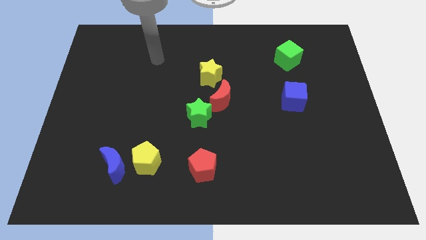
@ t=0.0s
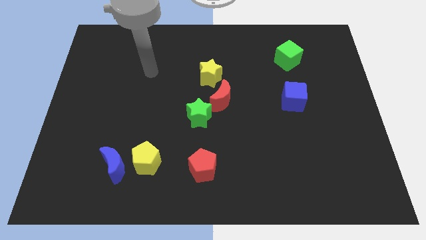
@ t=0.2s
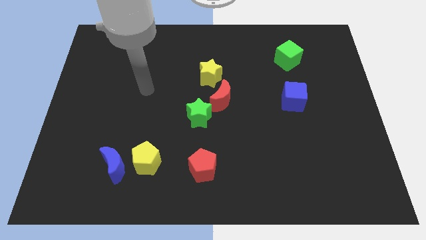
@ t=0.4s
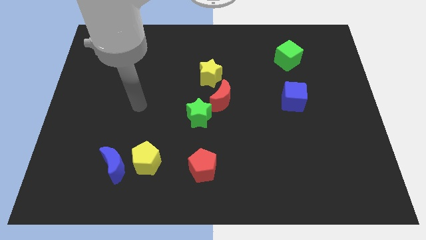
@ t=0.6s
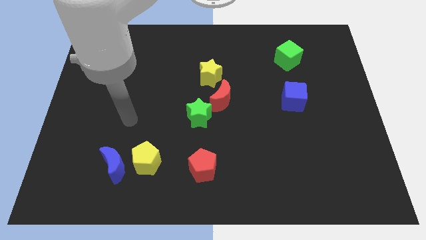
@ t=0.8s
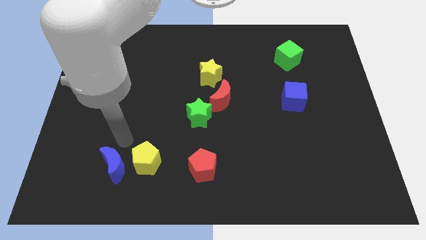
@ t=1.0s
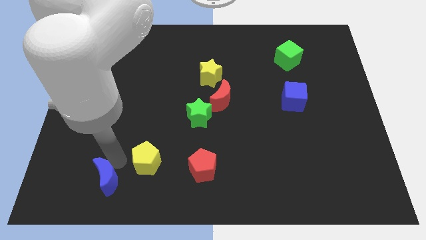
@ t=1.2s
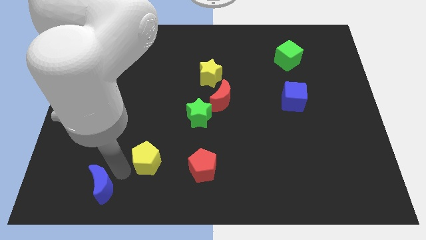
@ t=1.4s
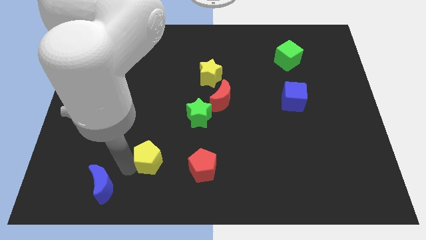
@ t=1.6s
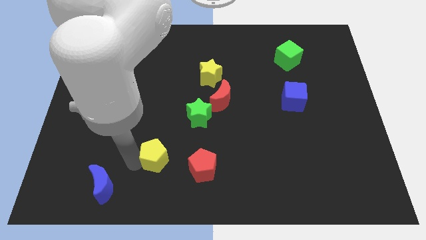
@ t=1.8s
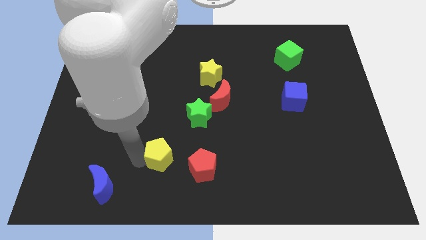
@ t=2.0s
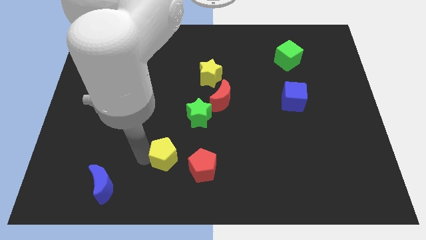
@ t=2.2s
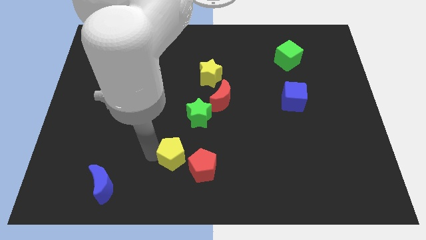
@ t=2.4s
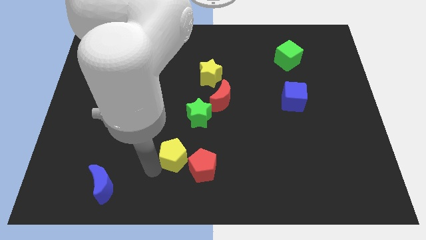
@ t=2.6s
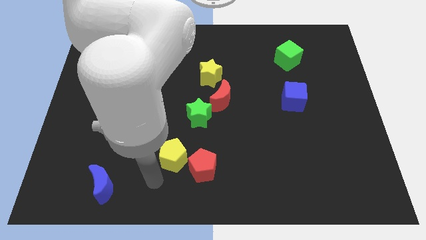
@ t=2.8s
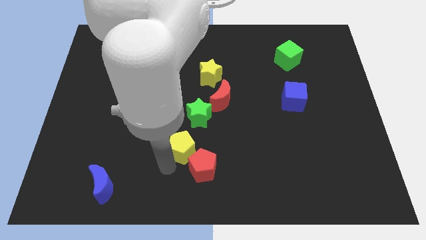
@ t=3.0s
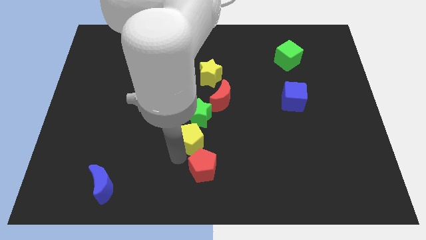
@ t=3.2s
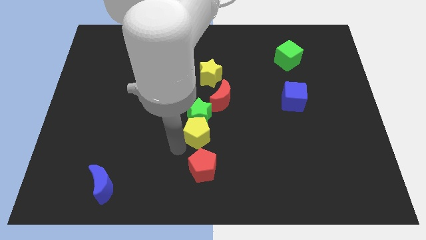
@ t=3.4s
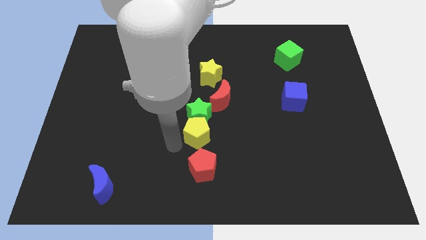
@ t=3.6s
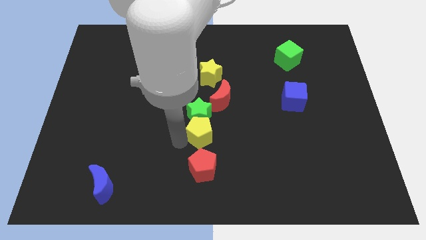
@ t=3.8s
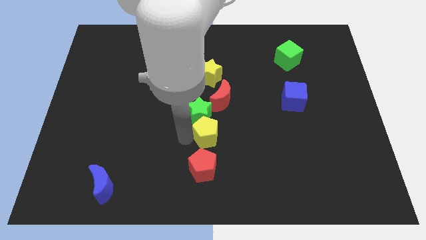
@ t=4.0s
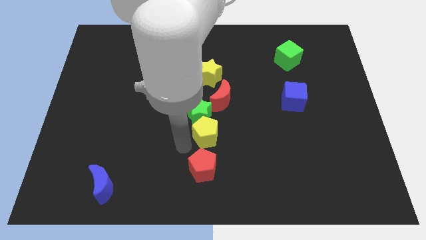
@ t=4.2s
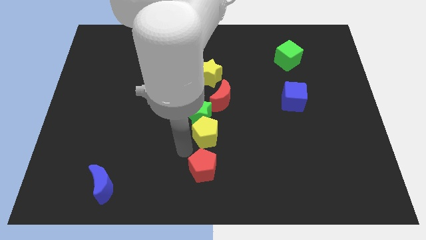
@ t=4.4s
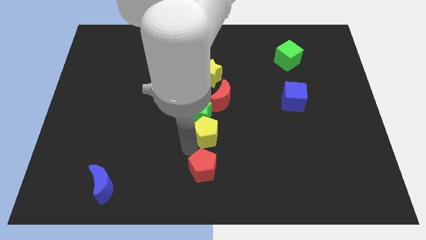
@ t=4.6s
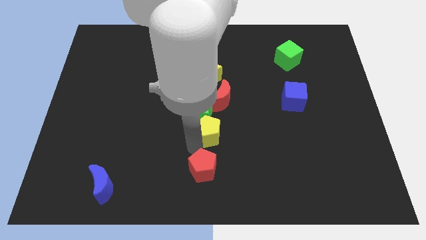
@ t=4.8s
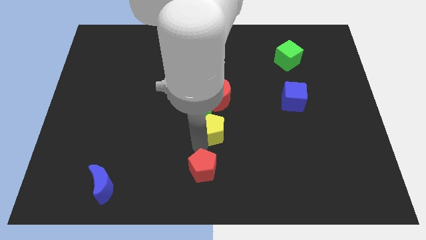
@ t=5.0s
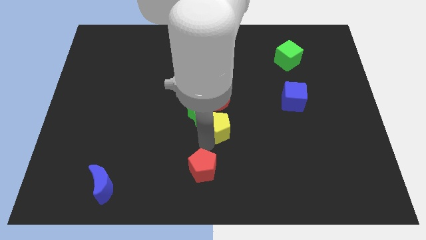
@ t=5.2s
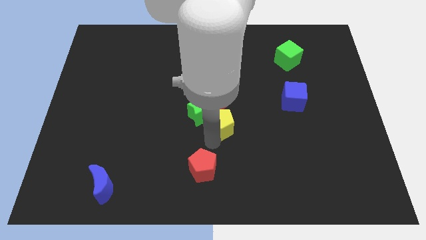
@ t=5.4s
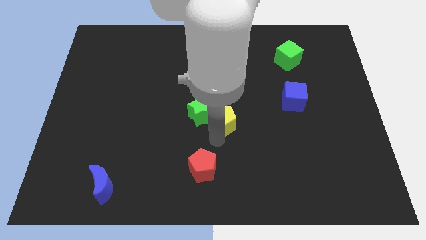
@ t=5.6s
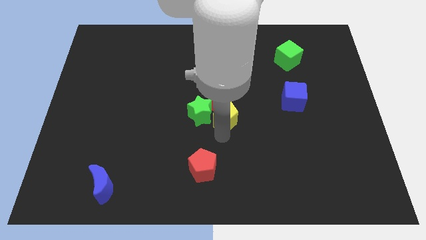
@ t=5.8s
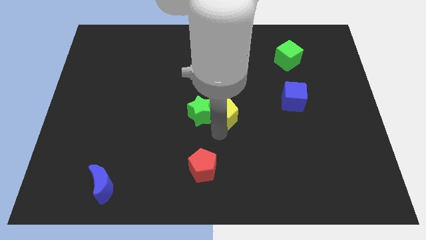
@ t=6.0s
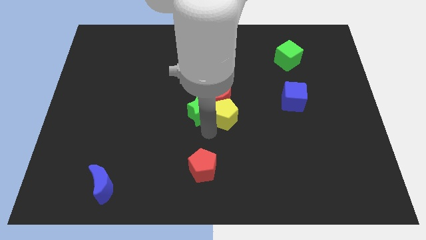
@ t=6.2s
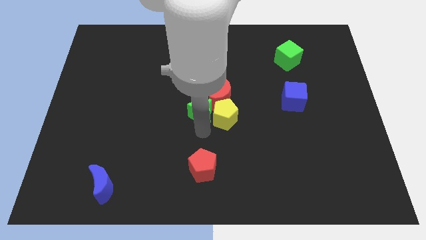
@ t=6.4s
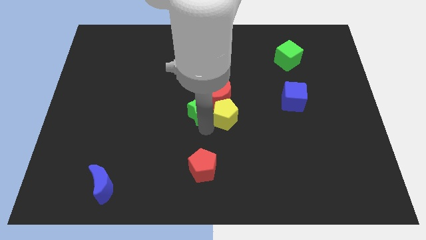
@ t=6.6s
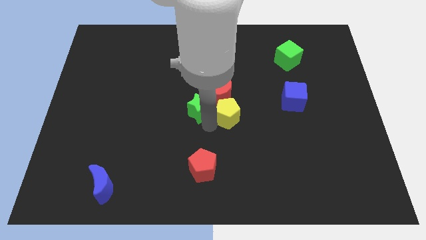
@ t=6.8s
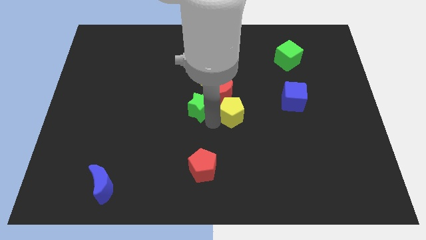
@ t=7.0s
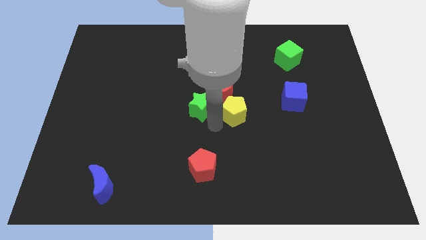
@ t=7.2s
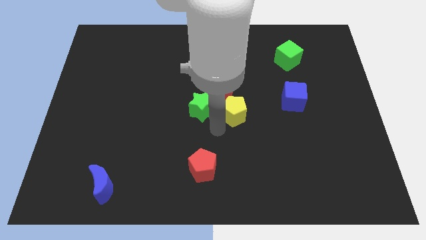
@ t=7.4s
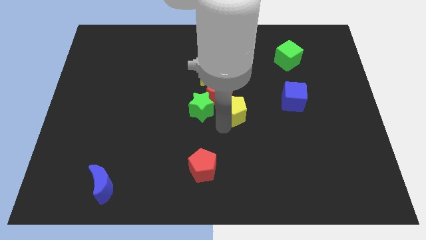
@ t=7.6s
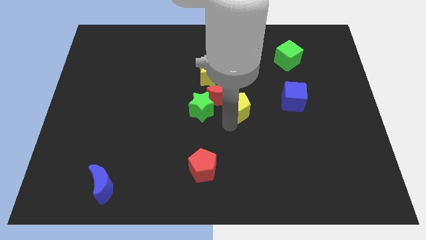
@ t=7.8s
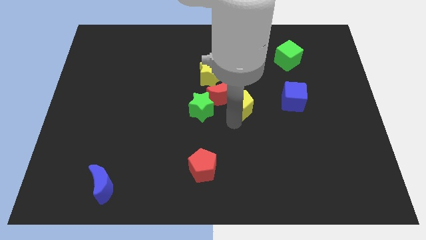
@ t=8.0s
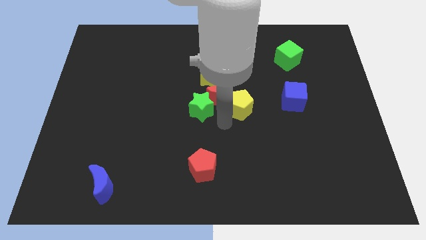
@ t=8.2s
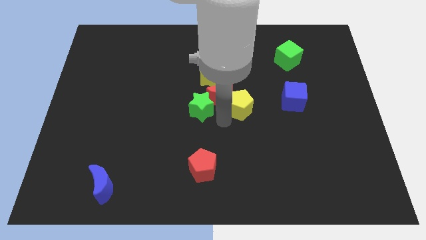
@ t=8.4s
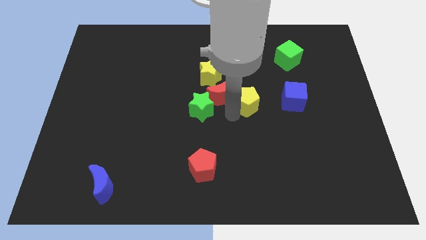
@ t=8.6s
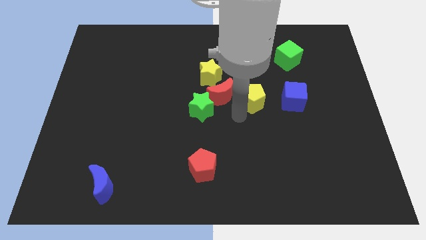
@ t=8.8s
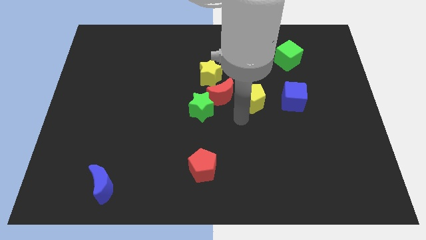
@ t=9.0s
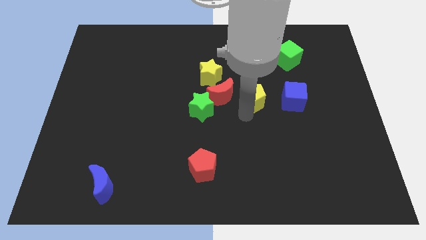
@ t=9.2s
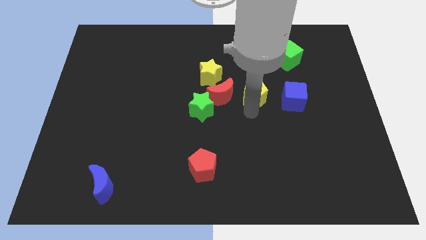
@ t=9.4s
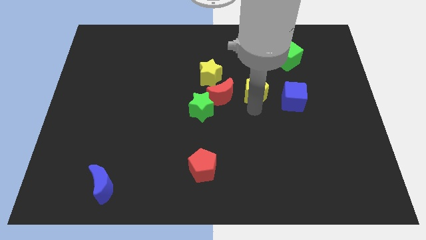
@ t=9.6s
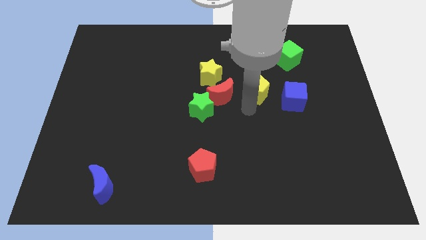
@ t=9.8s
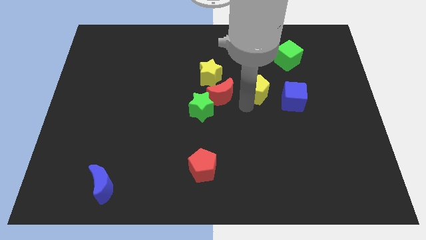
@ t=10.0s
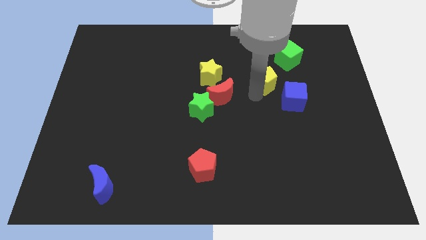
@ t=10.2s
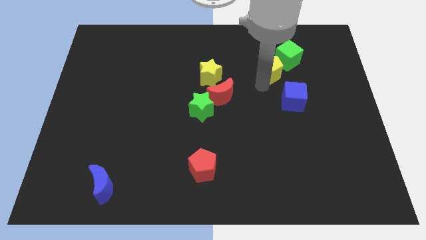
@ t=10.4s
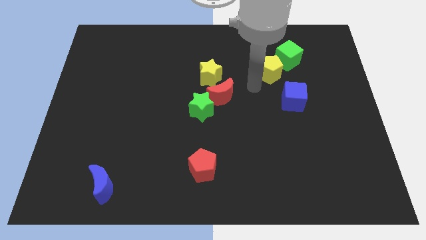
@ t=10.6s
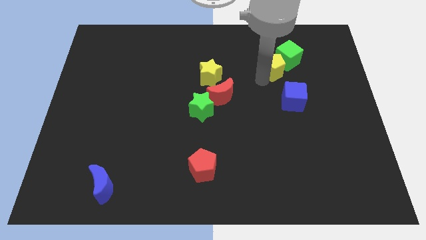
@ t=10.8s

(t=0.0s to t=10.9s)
slide the yellow pentagon close to the green cube

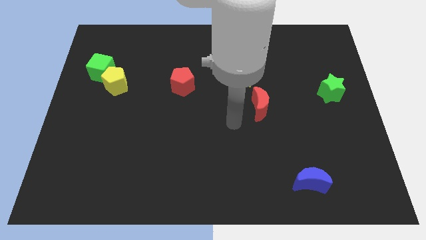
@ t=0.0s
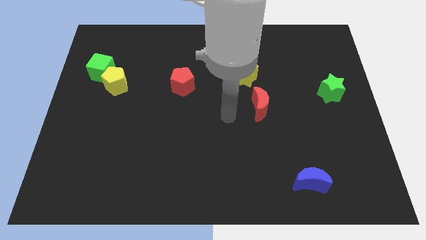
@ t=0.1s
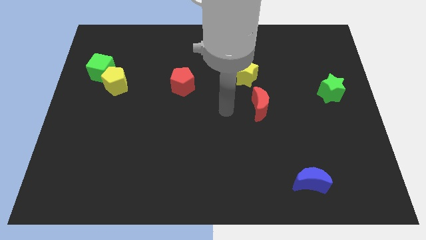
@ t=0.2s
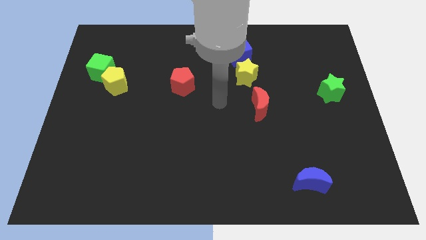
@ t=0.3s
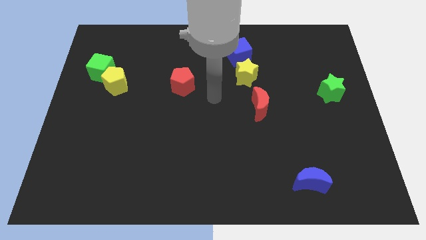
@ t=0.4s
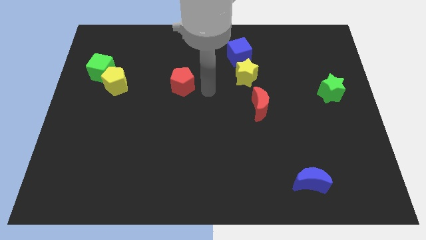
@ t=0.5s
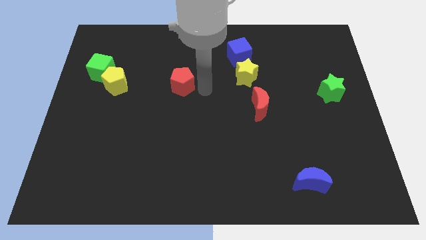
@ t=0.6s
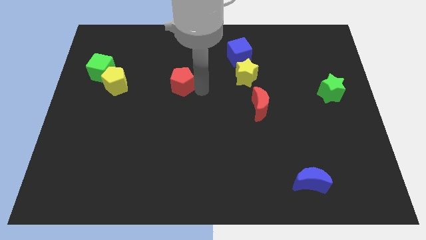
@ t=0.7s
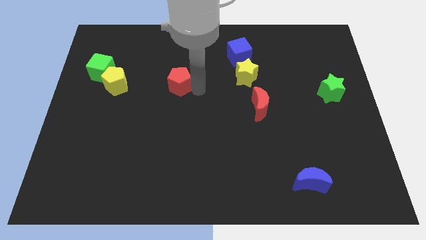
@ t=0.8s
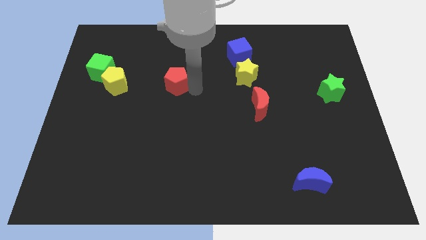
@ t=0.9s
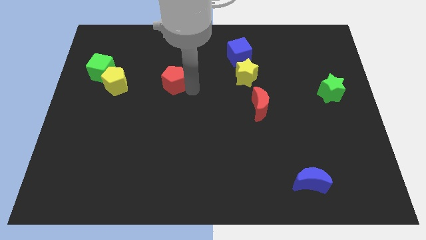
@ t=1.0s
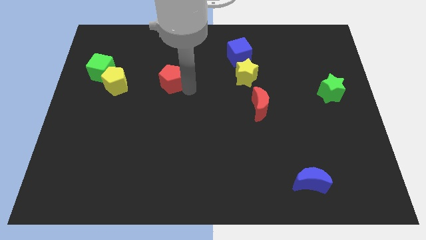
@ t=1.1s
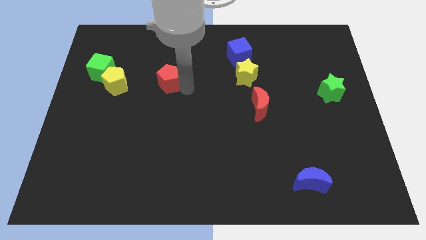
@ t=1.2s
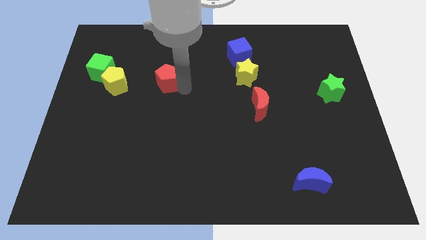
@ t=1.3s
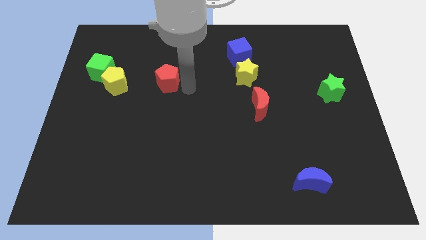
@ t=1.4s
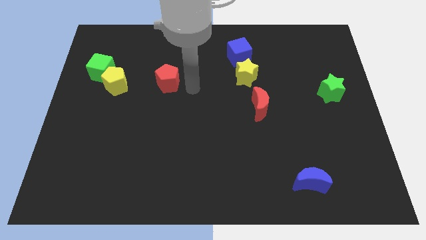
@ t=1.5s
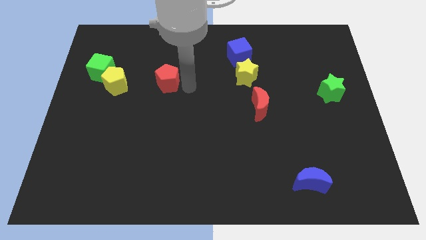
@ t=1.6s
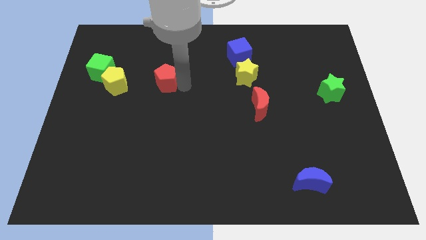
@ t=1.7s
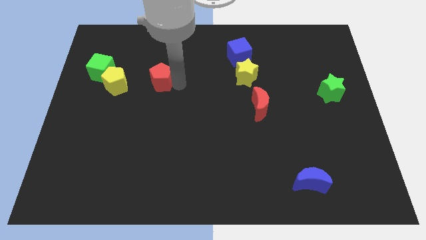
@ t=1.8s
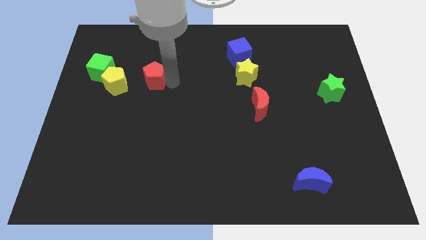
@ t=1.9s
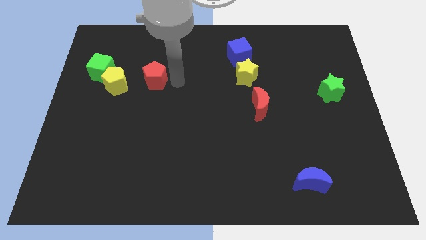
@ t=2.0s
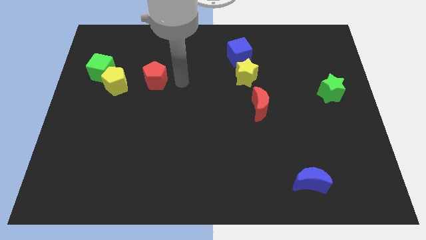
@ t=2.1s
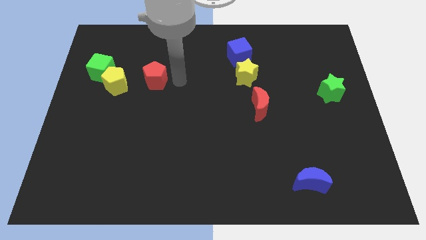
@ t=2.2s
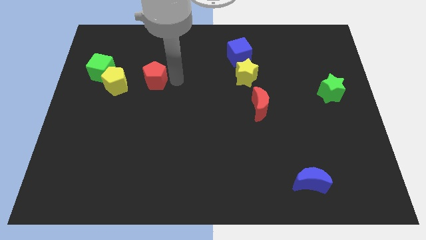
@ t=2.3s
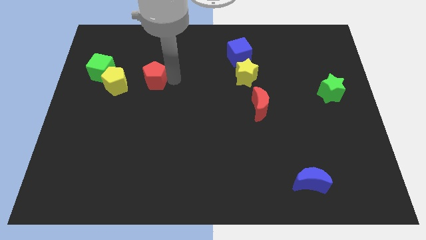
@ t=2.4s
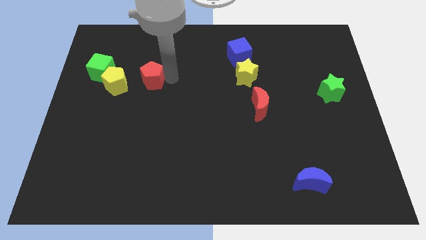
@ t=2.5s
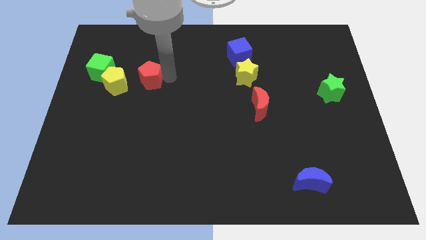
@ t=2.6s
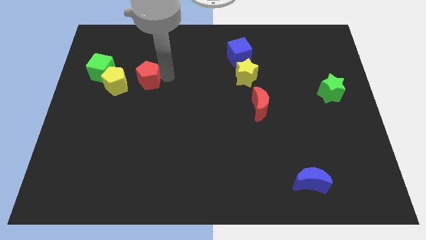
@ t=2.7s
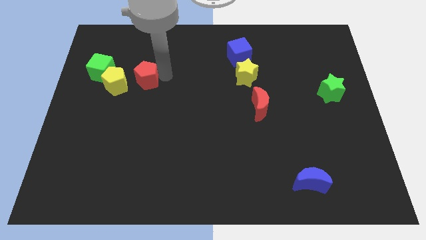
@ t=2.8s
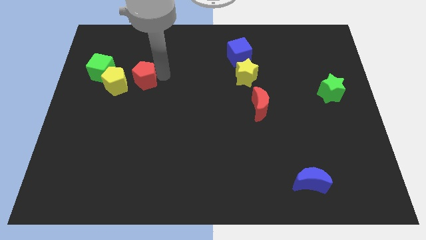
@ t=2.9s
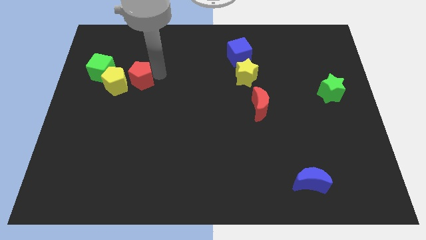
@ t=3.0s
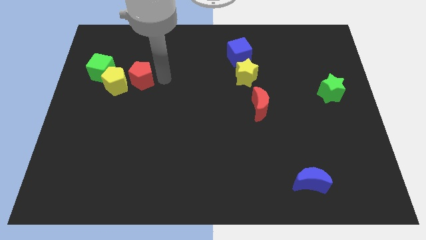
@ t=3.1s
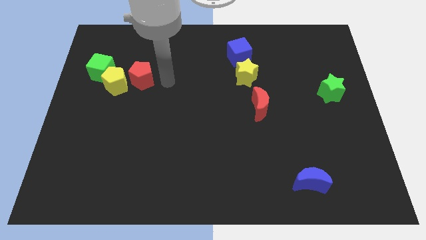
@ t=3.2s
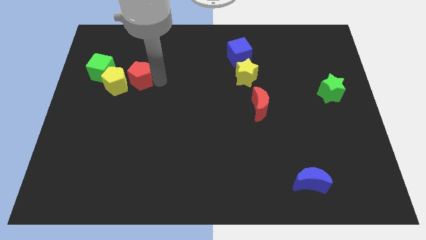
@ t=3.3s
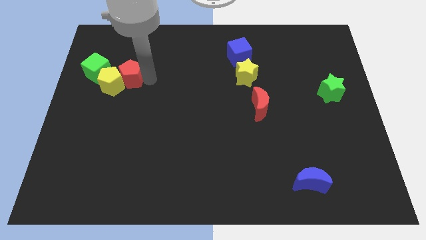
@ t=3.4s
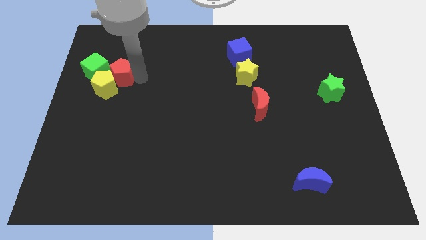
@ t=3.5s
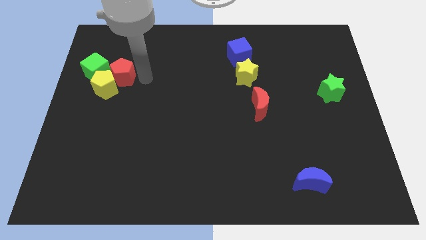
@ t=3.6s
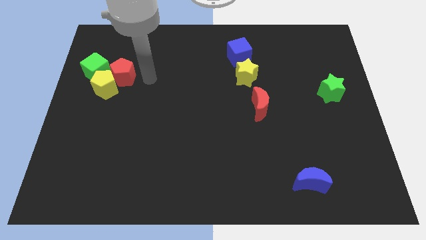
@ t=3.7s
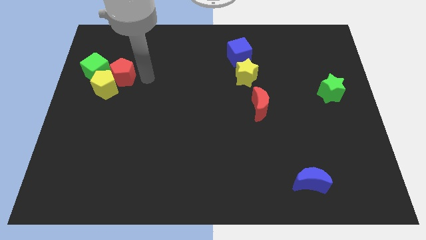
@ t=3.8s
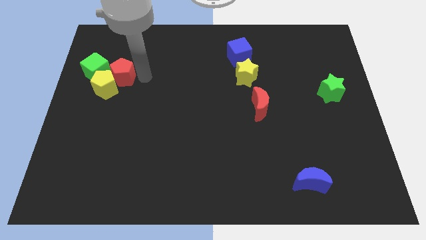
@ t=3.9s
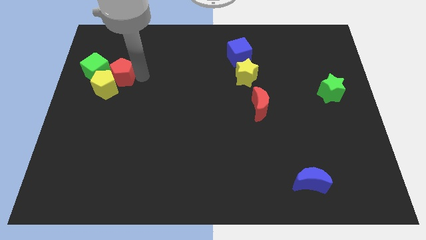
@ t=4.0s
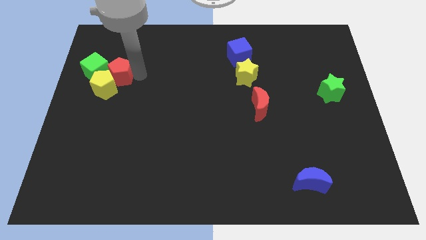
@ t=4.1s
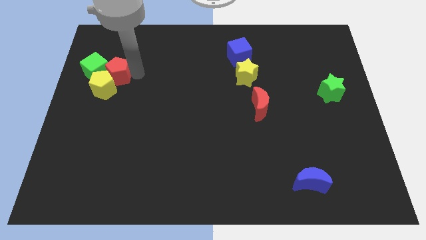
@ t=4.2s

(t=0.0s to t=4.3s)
push the red pentagon close to the green cube
